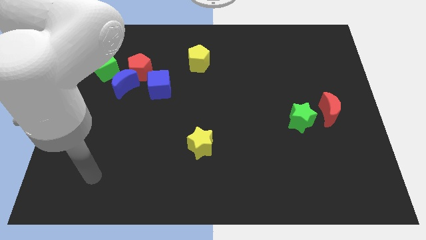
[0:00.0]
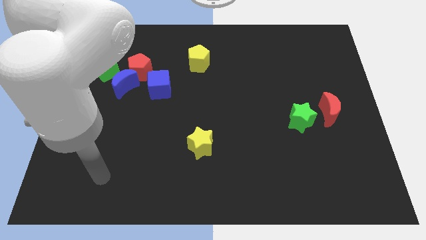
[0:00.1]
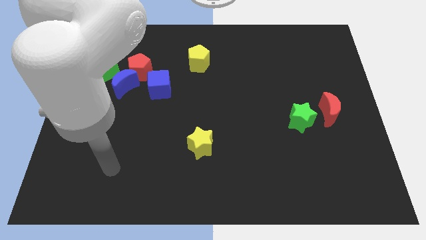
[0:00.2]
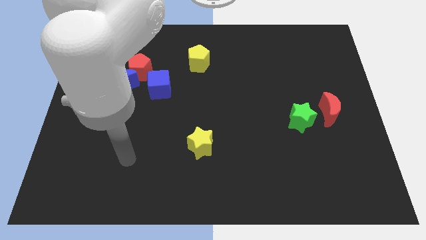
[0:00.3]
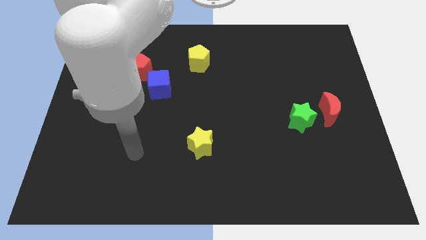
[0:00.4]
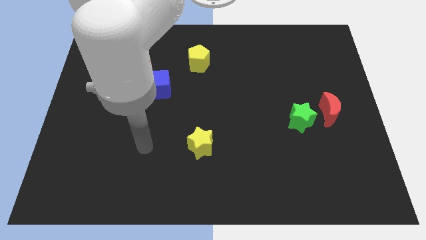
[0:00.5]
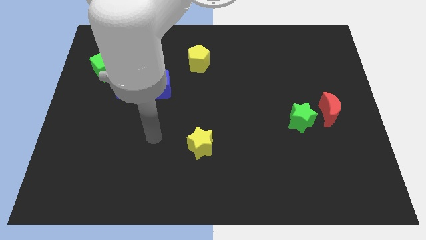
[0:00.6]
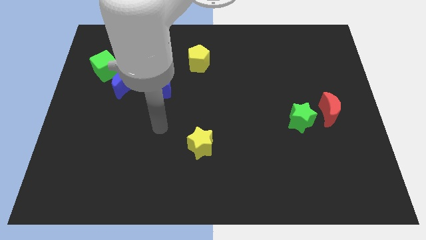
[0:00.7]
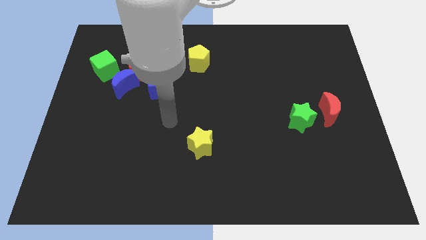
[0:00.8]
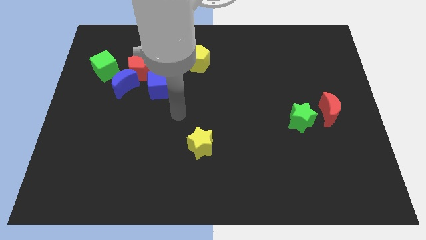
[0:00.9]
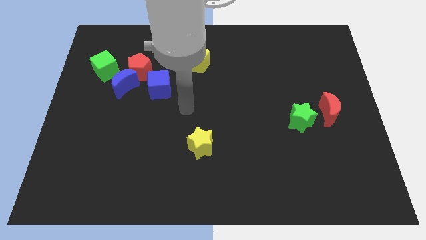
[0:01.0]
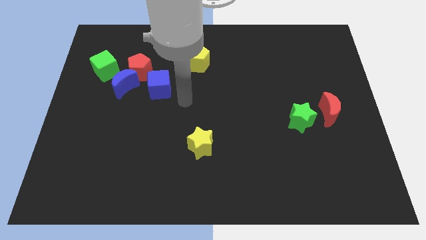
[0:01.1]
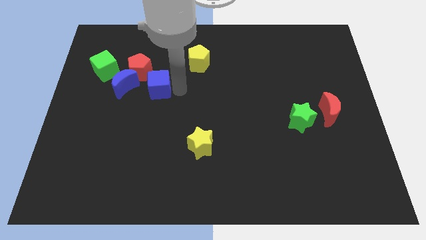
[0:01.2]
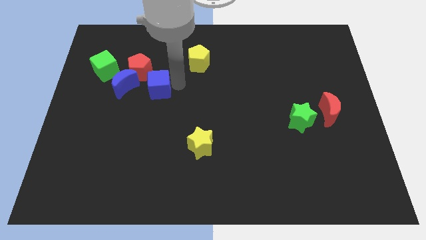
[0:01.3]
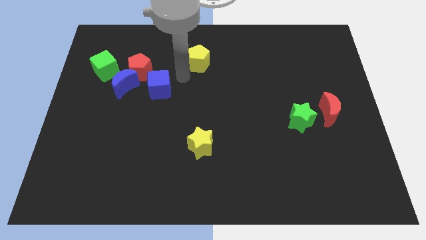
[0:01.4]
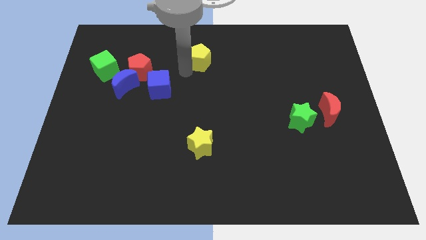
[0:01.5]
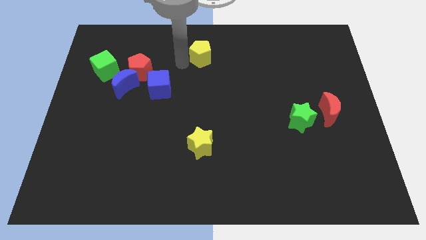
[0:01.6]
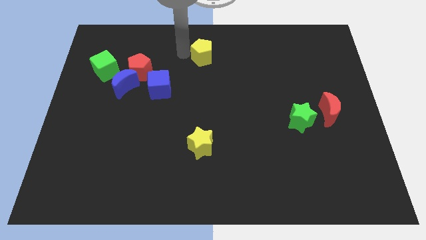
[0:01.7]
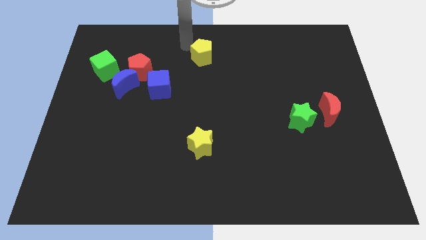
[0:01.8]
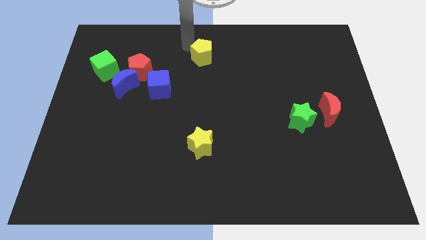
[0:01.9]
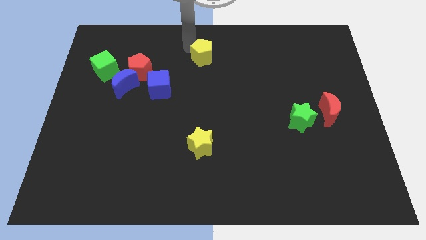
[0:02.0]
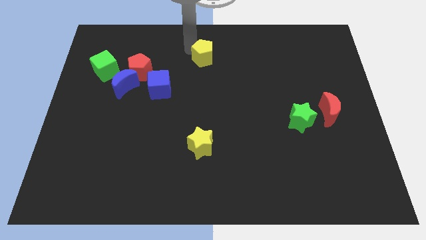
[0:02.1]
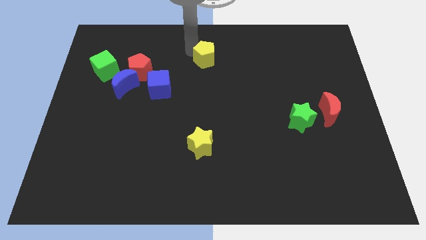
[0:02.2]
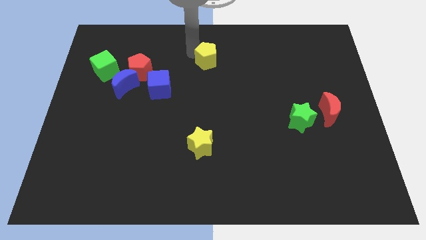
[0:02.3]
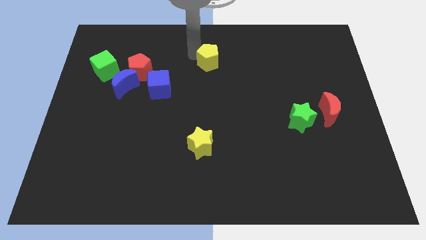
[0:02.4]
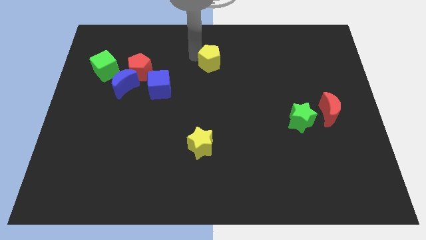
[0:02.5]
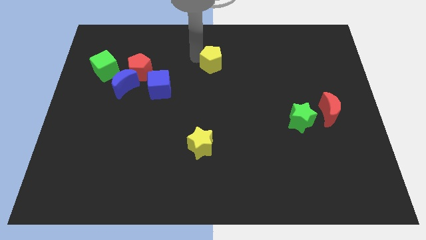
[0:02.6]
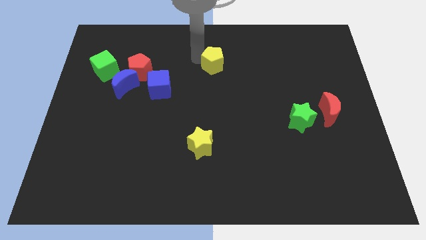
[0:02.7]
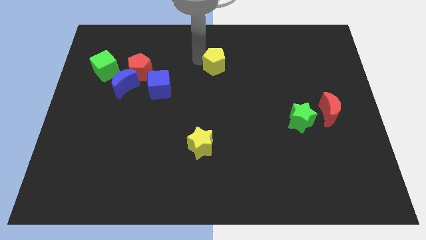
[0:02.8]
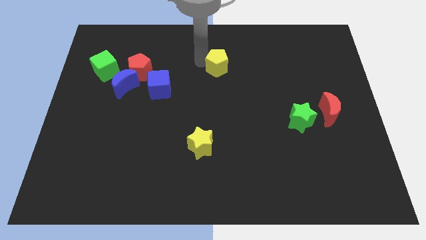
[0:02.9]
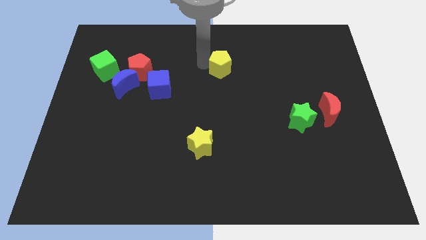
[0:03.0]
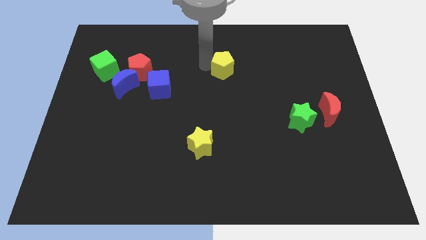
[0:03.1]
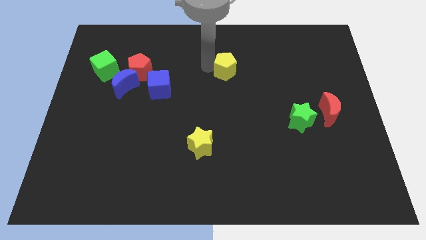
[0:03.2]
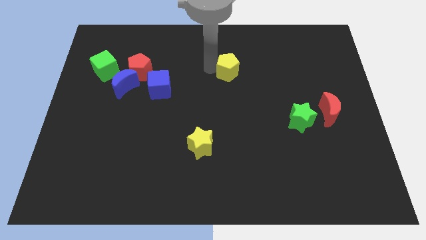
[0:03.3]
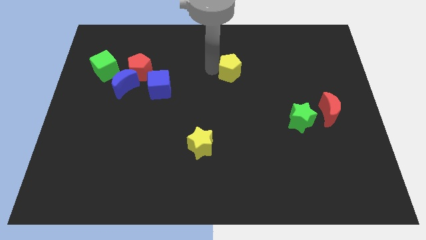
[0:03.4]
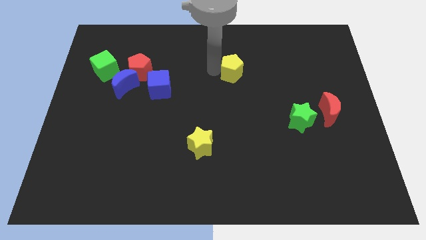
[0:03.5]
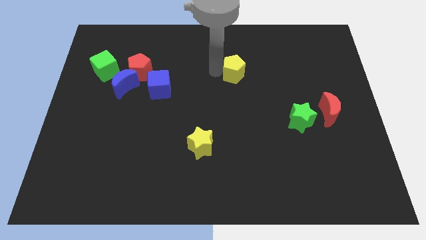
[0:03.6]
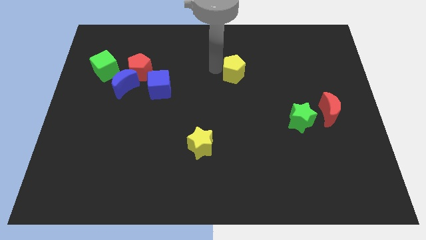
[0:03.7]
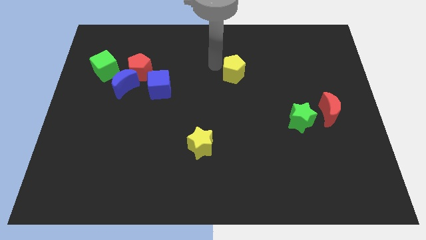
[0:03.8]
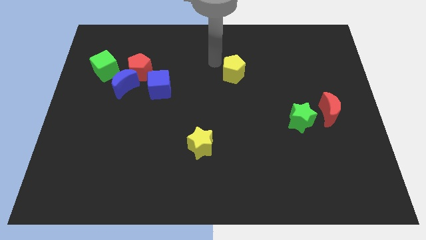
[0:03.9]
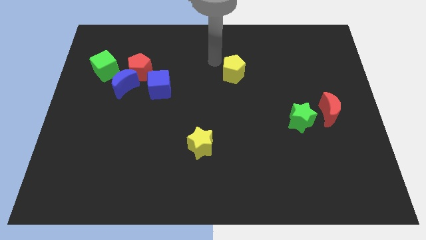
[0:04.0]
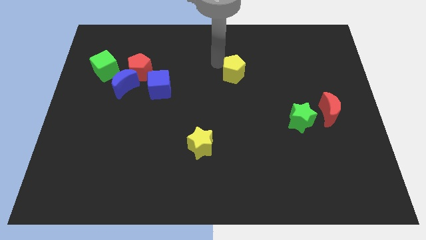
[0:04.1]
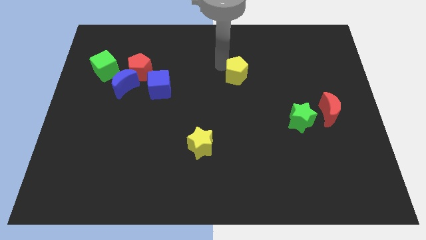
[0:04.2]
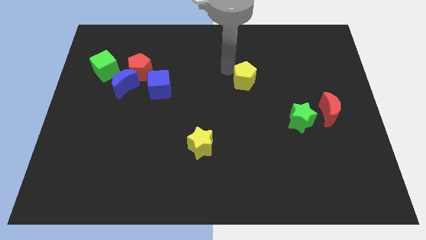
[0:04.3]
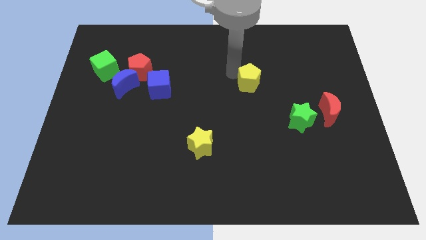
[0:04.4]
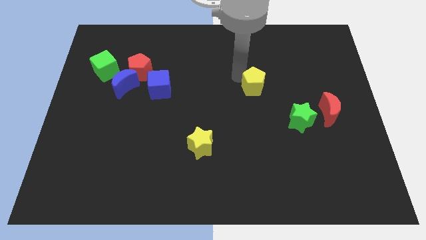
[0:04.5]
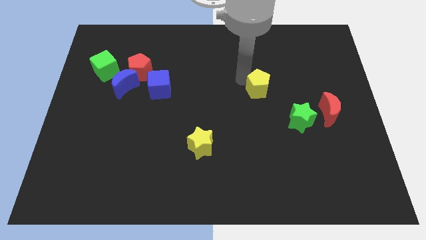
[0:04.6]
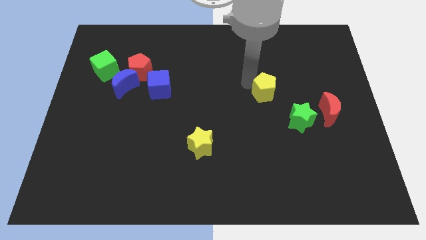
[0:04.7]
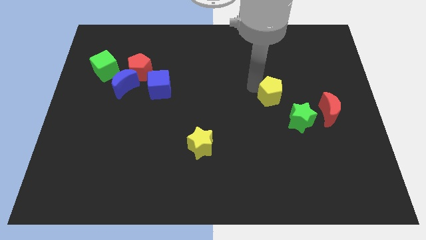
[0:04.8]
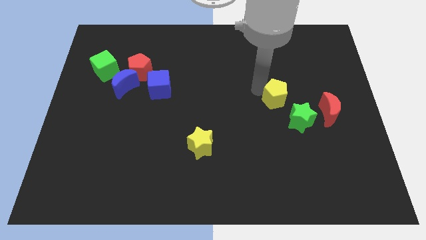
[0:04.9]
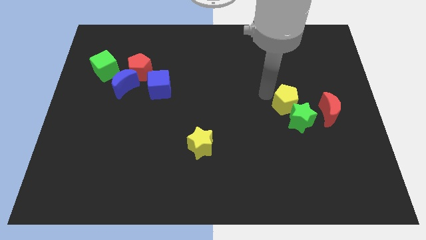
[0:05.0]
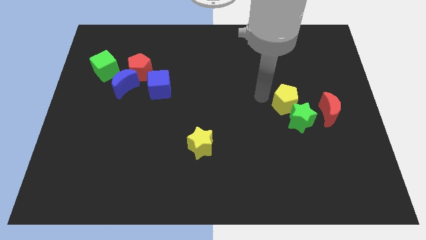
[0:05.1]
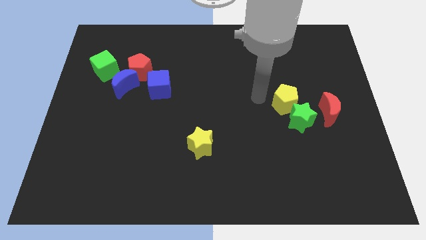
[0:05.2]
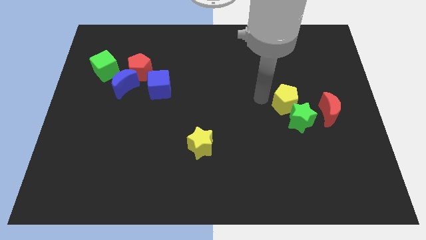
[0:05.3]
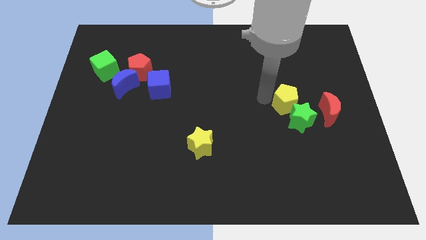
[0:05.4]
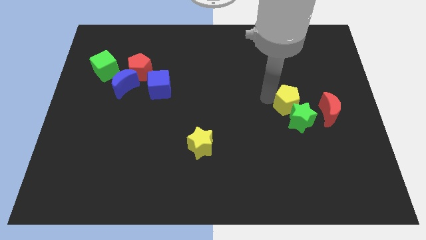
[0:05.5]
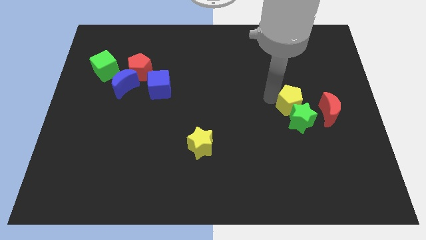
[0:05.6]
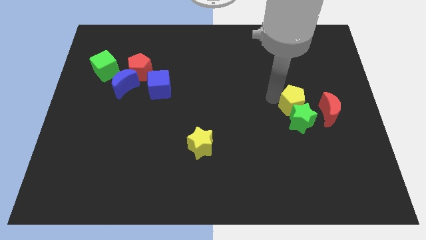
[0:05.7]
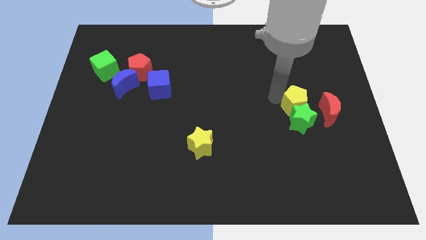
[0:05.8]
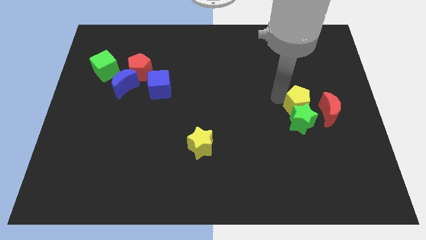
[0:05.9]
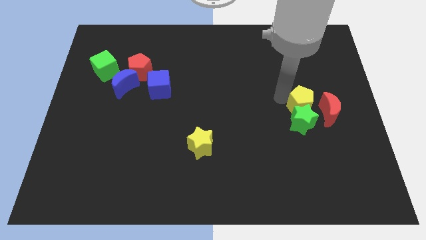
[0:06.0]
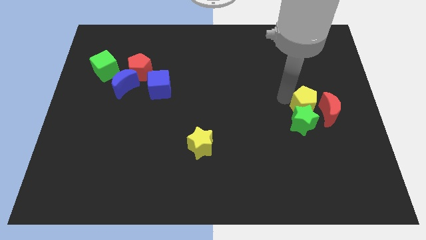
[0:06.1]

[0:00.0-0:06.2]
slide the yellow pentagon next to the red moon

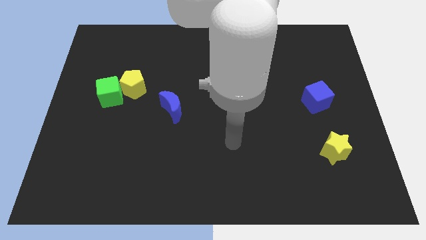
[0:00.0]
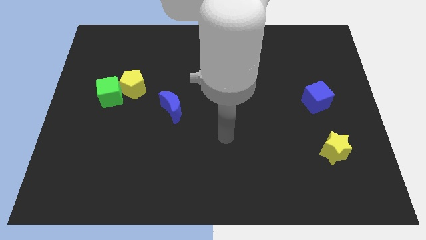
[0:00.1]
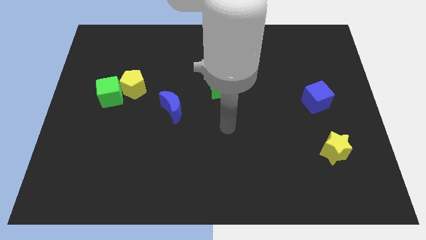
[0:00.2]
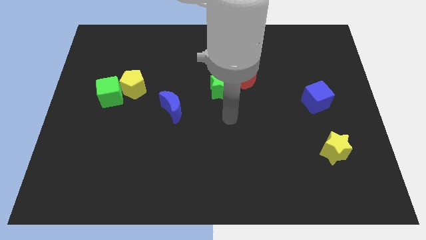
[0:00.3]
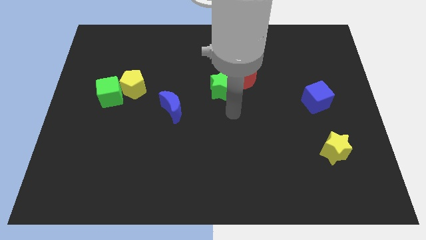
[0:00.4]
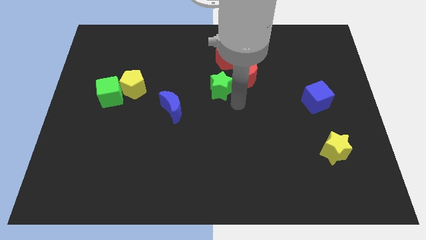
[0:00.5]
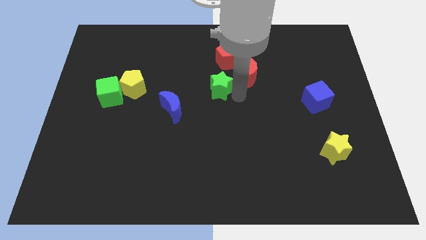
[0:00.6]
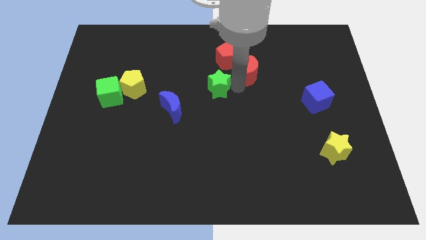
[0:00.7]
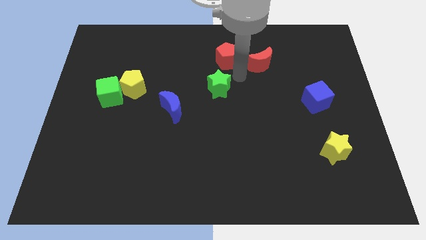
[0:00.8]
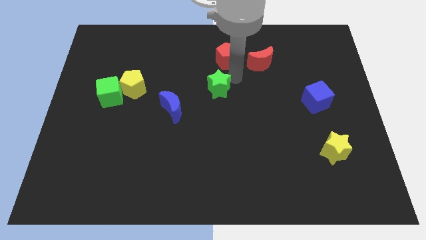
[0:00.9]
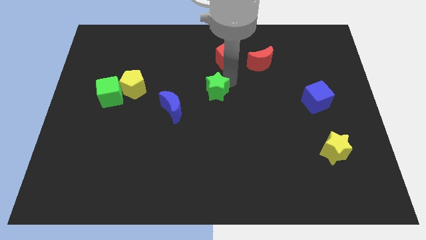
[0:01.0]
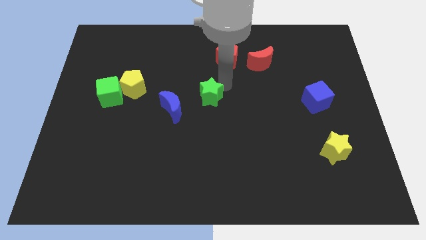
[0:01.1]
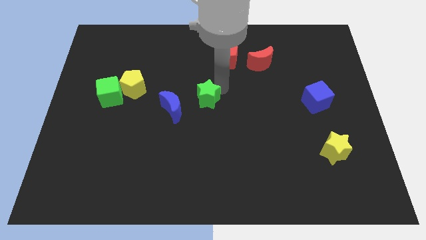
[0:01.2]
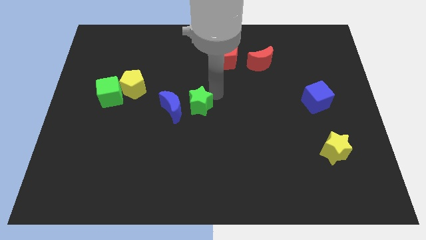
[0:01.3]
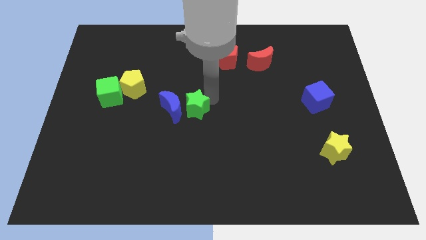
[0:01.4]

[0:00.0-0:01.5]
push the green star to the blue moon
